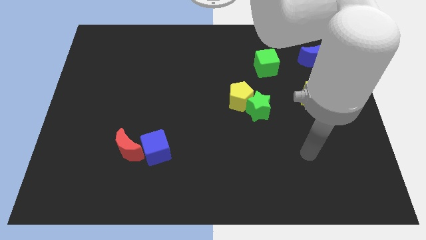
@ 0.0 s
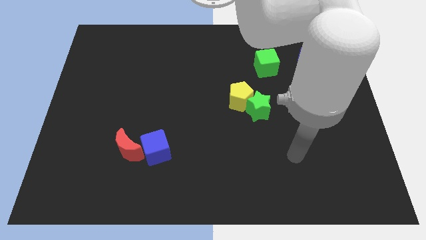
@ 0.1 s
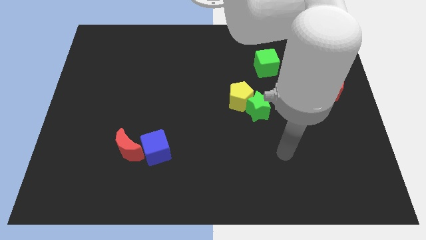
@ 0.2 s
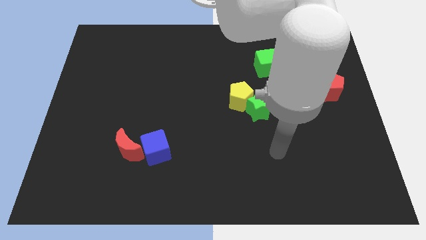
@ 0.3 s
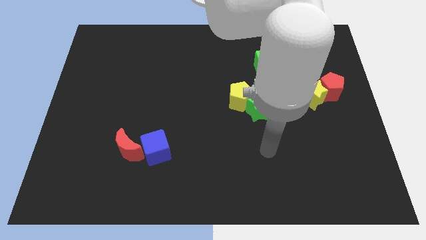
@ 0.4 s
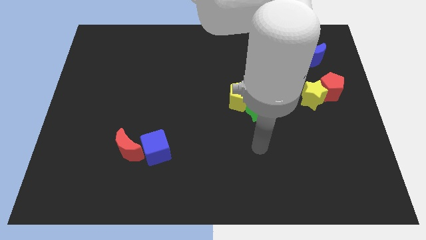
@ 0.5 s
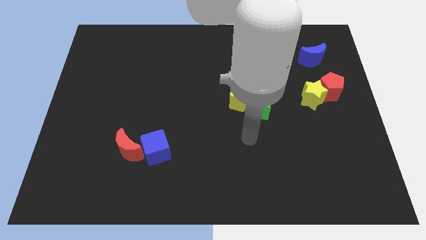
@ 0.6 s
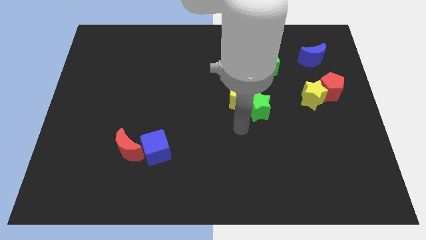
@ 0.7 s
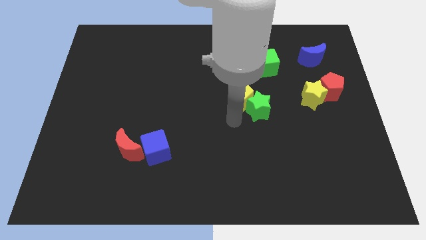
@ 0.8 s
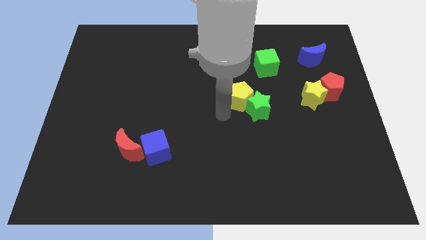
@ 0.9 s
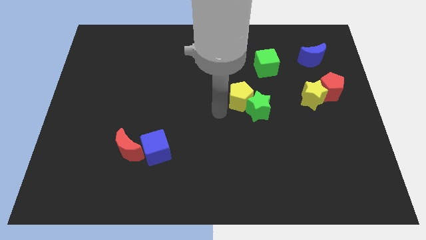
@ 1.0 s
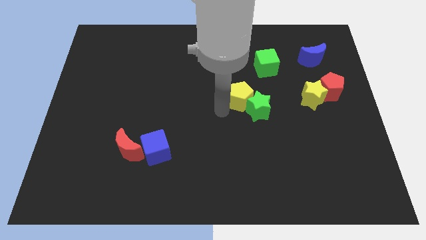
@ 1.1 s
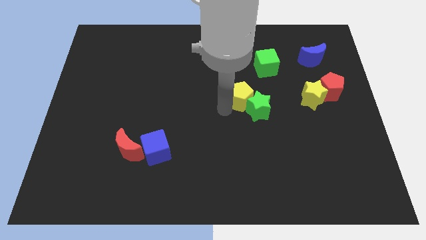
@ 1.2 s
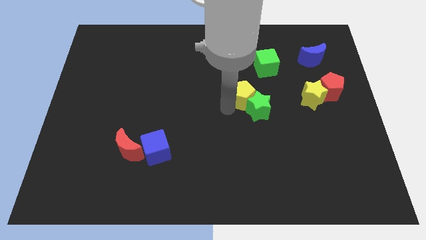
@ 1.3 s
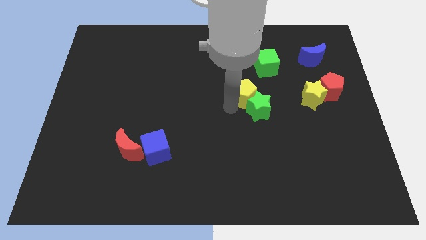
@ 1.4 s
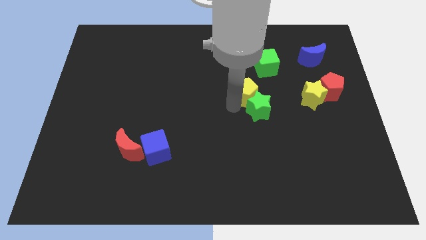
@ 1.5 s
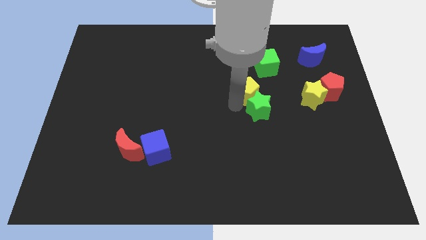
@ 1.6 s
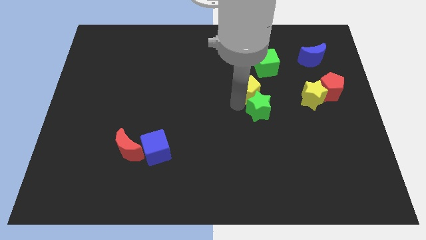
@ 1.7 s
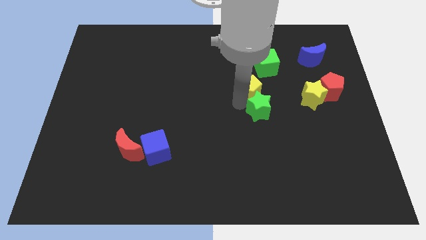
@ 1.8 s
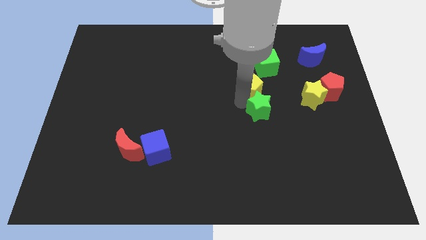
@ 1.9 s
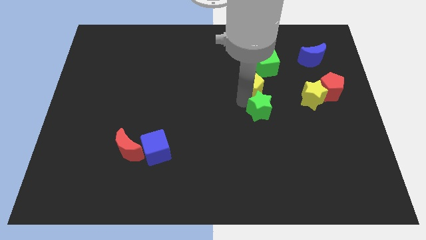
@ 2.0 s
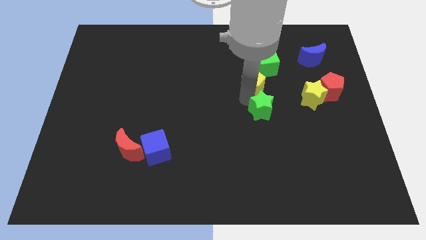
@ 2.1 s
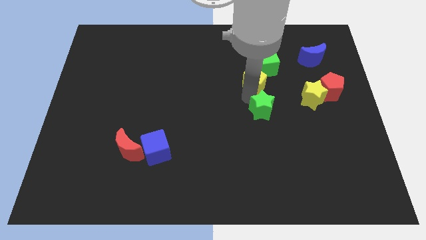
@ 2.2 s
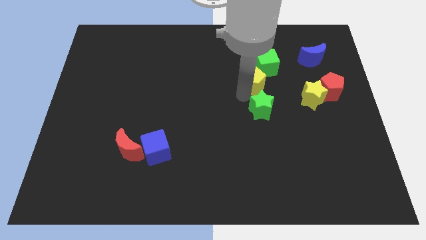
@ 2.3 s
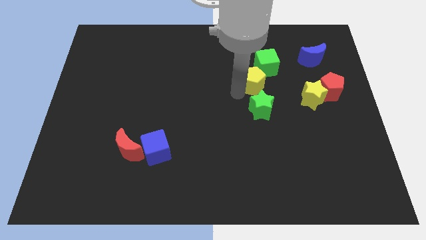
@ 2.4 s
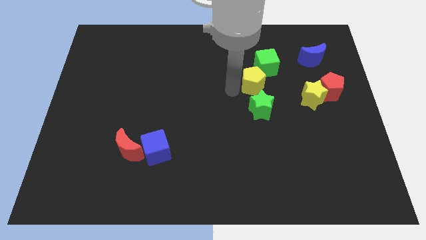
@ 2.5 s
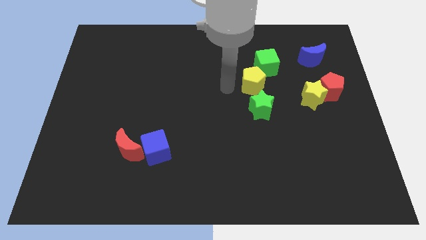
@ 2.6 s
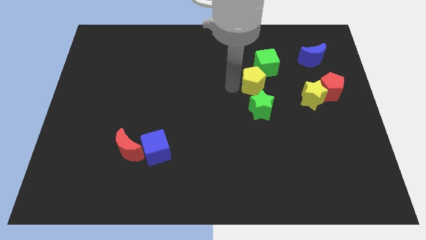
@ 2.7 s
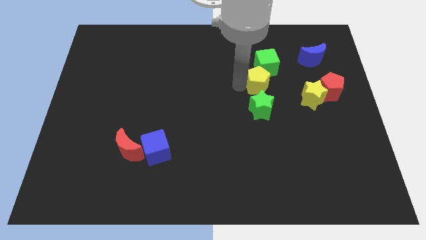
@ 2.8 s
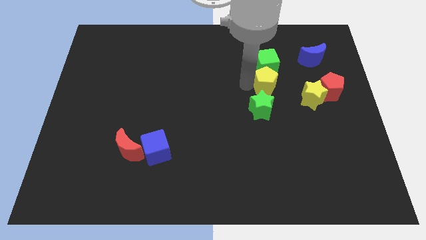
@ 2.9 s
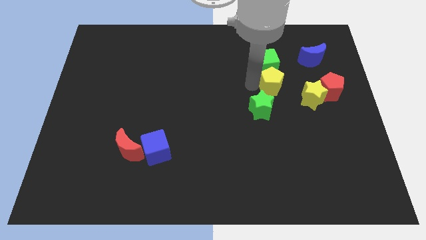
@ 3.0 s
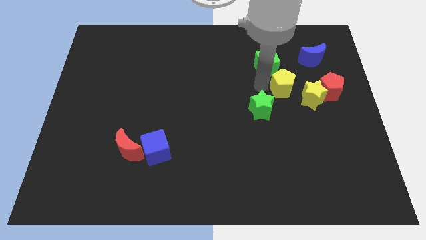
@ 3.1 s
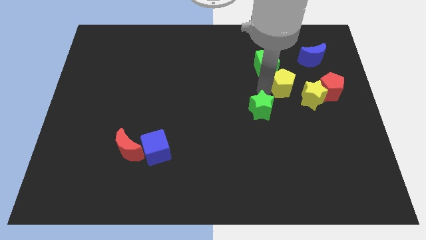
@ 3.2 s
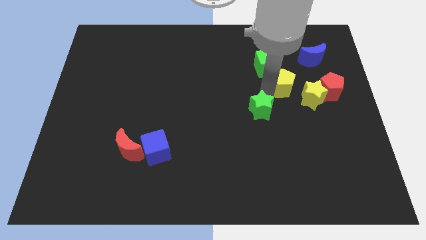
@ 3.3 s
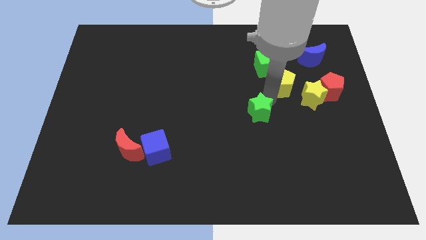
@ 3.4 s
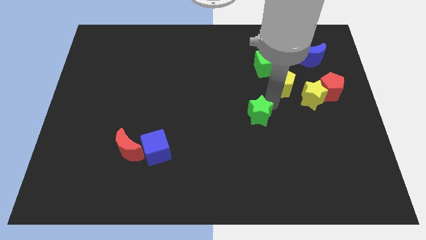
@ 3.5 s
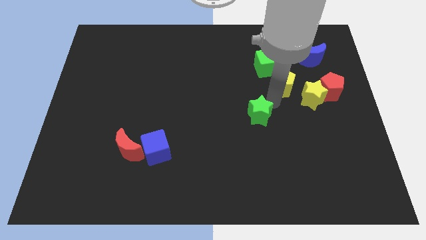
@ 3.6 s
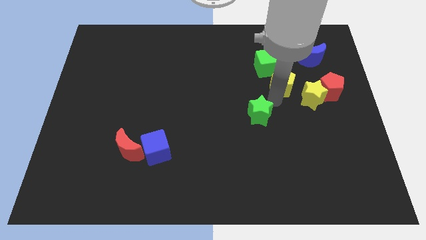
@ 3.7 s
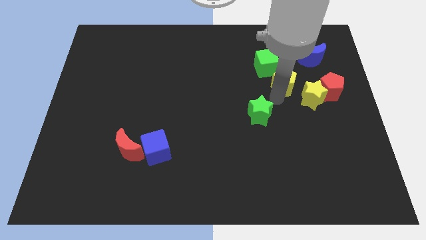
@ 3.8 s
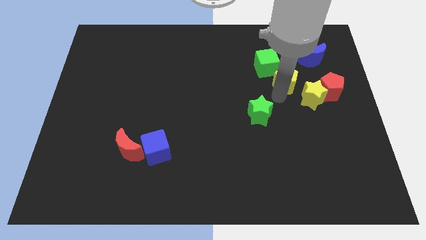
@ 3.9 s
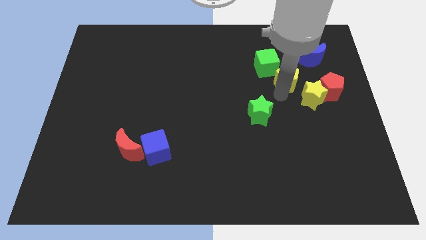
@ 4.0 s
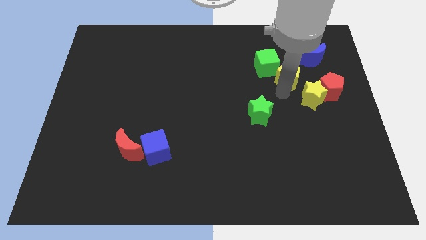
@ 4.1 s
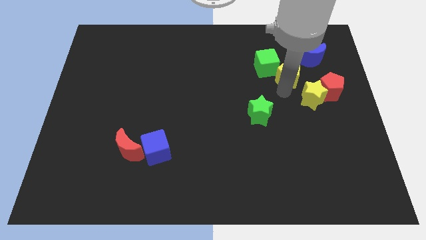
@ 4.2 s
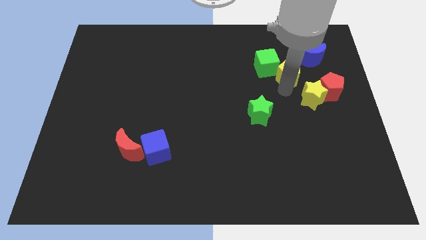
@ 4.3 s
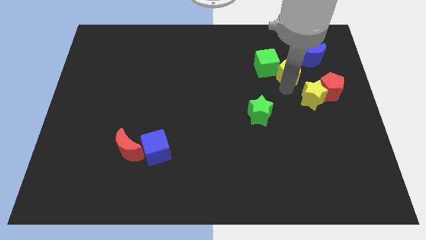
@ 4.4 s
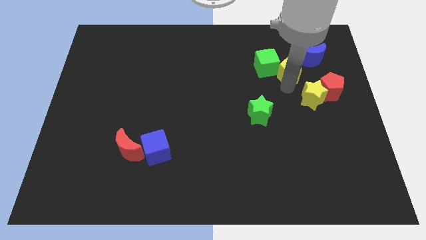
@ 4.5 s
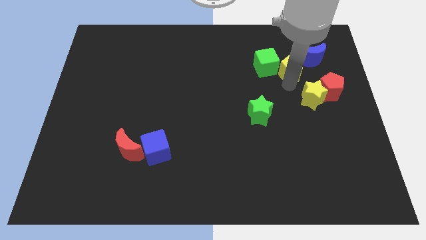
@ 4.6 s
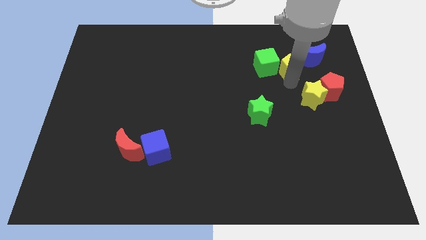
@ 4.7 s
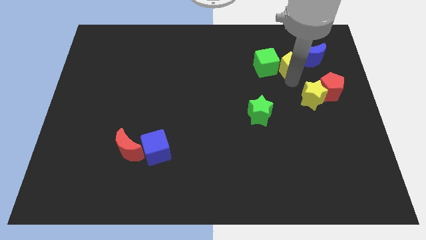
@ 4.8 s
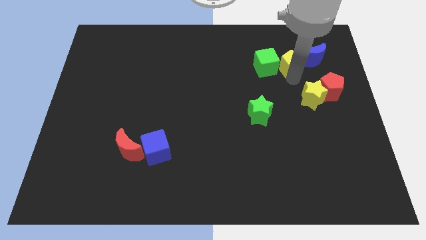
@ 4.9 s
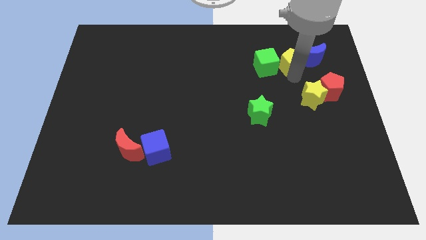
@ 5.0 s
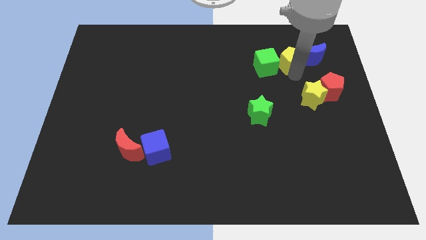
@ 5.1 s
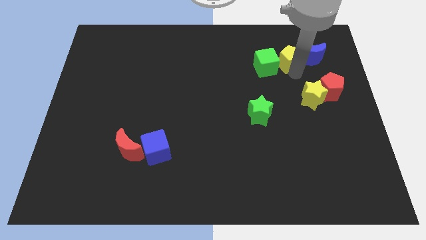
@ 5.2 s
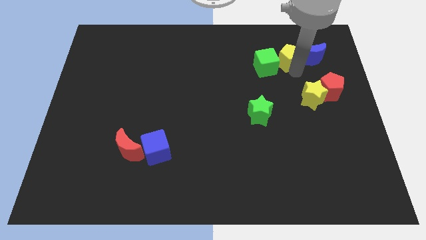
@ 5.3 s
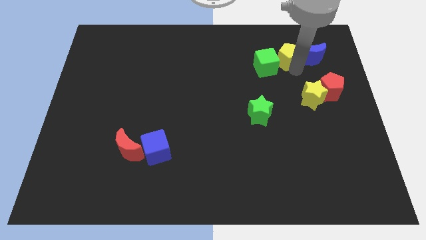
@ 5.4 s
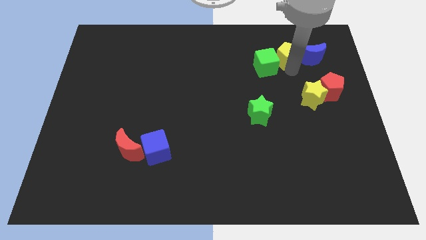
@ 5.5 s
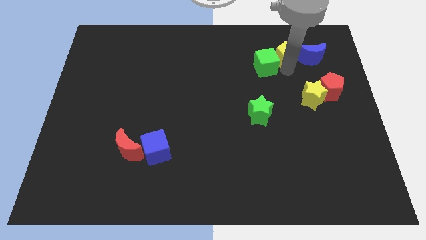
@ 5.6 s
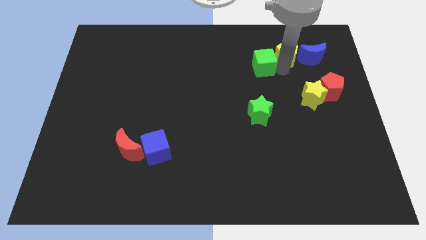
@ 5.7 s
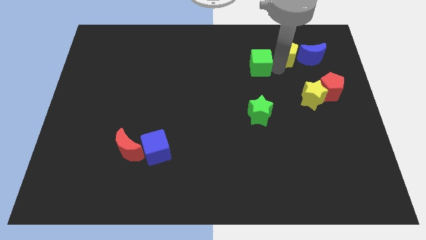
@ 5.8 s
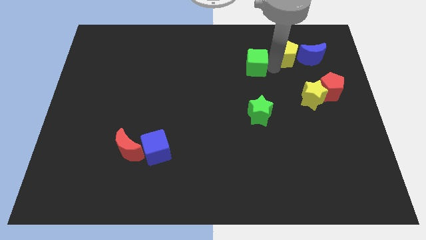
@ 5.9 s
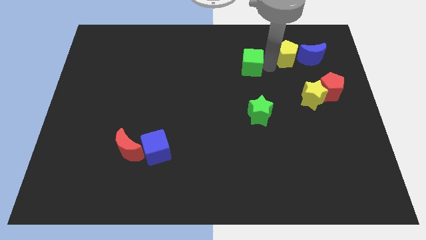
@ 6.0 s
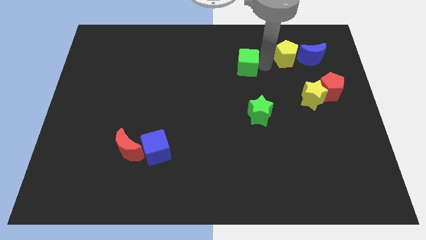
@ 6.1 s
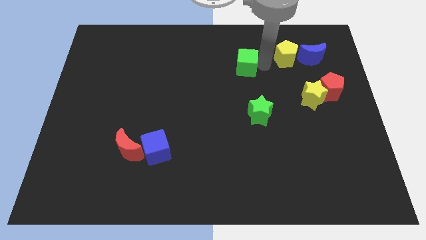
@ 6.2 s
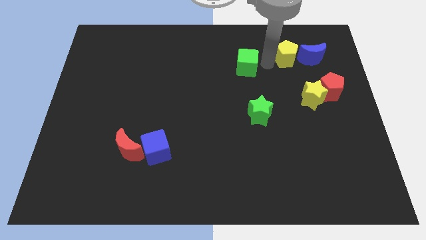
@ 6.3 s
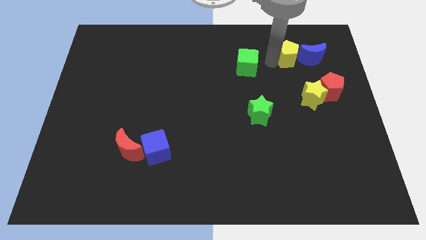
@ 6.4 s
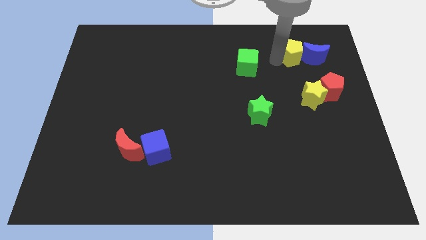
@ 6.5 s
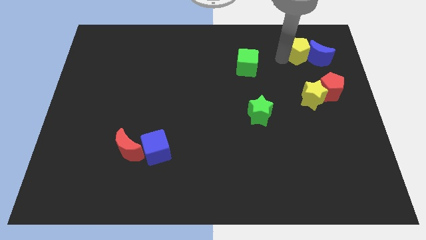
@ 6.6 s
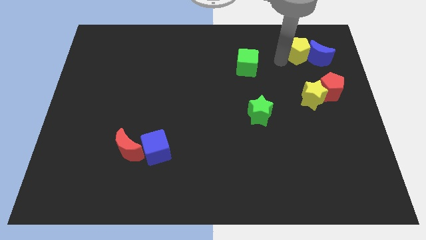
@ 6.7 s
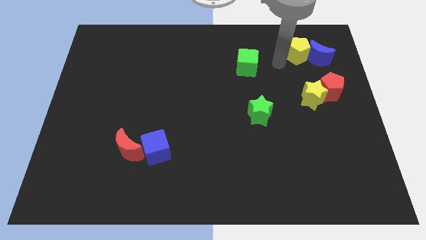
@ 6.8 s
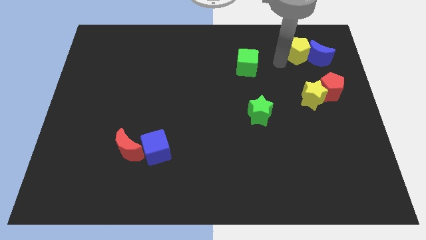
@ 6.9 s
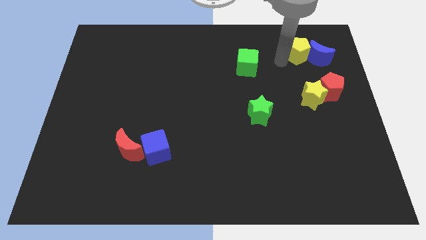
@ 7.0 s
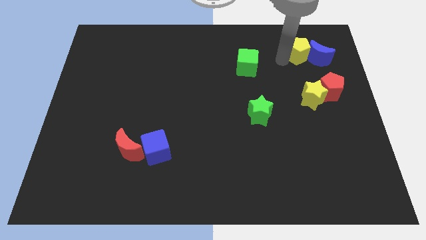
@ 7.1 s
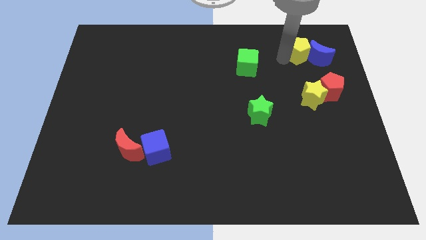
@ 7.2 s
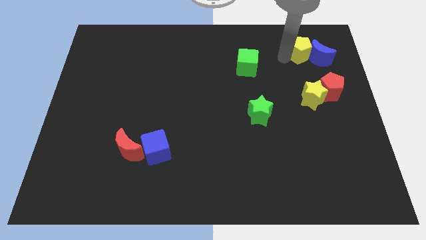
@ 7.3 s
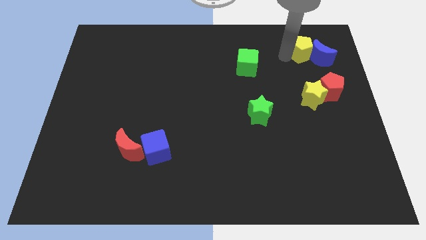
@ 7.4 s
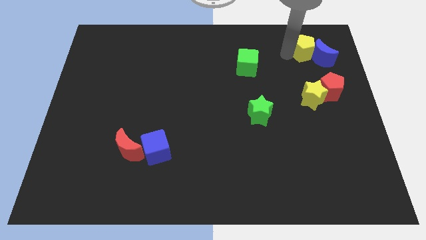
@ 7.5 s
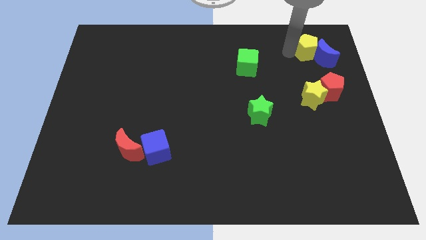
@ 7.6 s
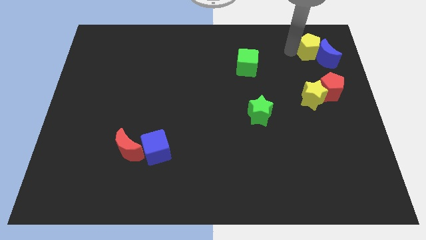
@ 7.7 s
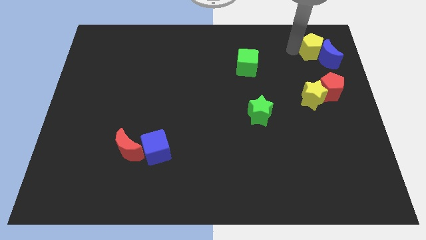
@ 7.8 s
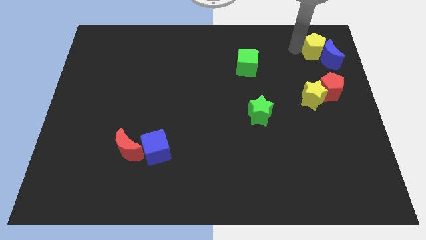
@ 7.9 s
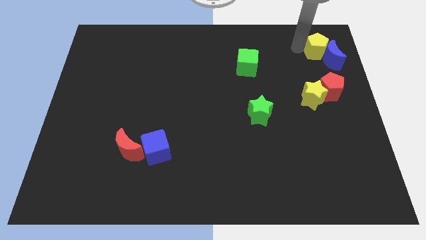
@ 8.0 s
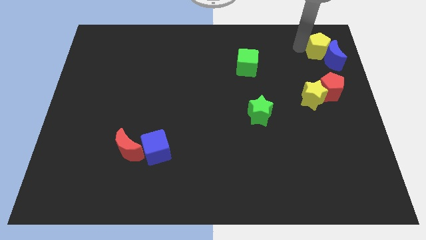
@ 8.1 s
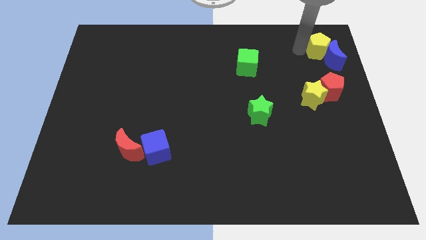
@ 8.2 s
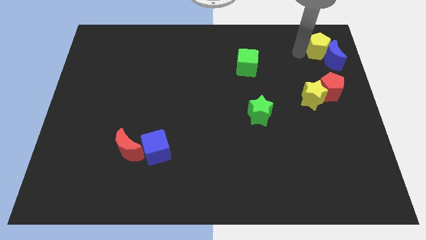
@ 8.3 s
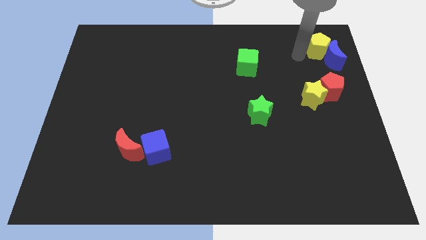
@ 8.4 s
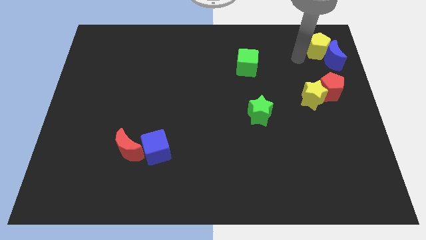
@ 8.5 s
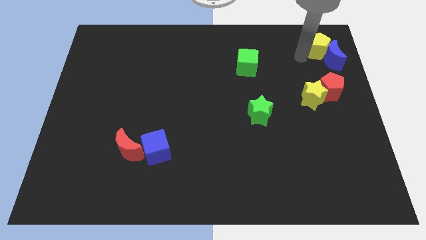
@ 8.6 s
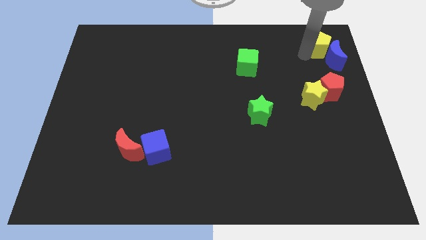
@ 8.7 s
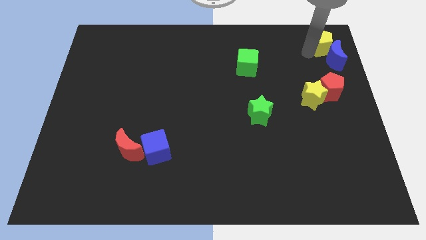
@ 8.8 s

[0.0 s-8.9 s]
push the yellow pentagon to the top right corner
